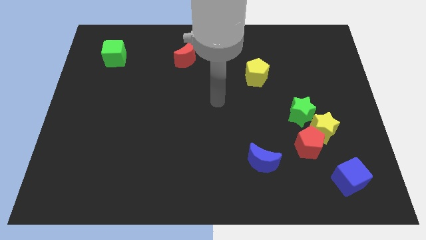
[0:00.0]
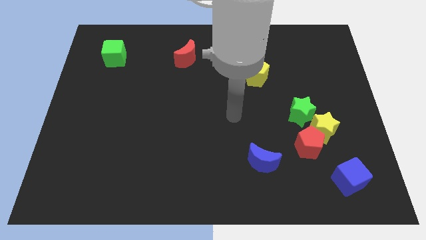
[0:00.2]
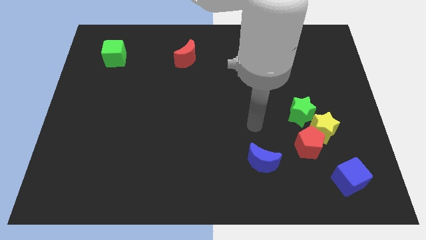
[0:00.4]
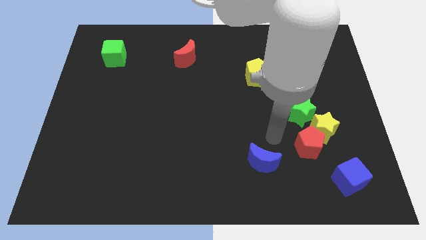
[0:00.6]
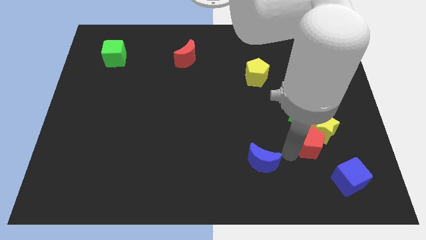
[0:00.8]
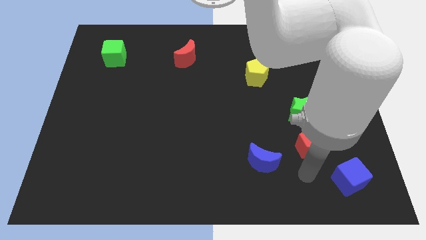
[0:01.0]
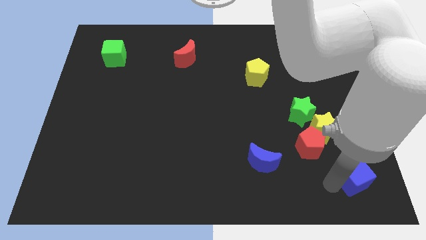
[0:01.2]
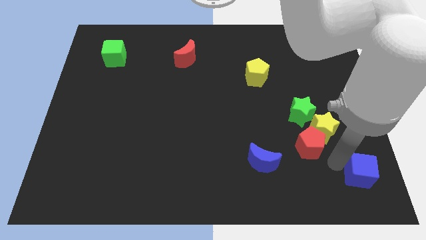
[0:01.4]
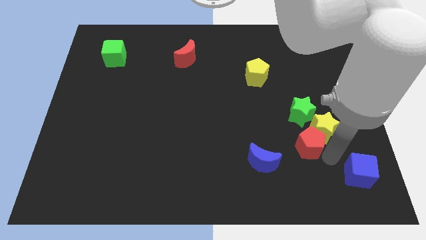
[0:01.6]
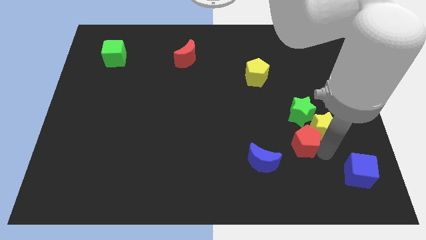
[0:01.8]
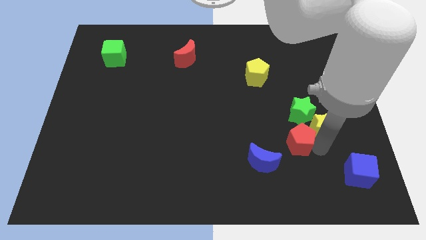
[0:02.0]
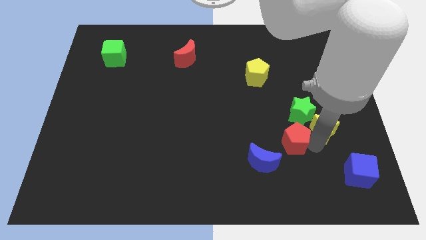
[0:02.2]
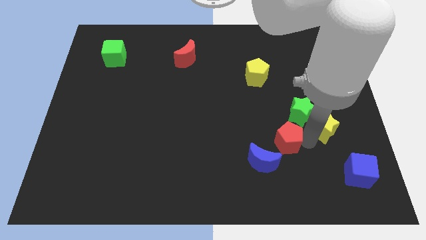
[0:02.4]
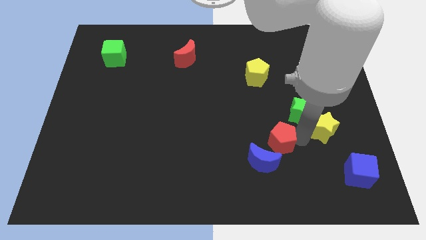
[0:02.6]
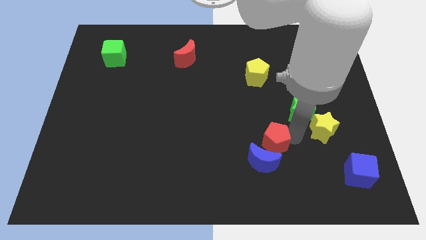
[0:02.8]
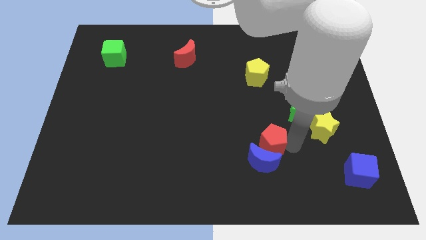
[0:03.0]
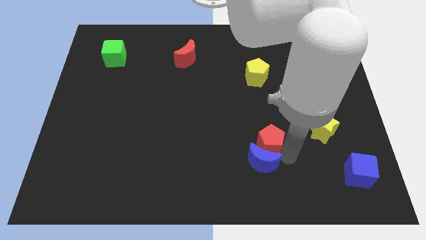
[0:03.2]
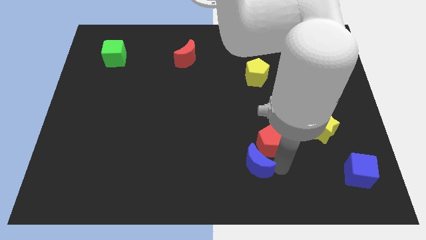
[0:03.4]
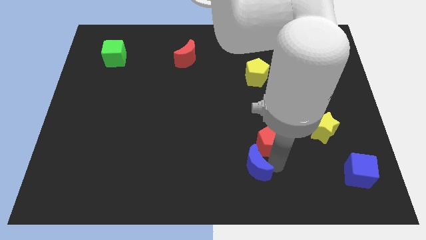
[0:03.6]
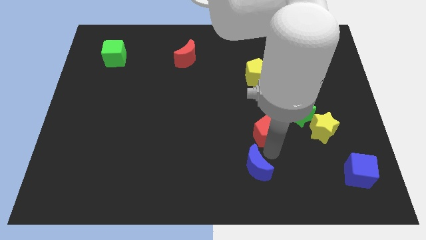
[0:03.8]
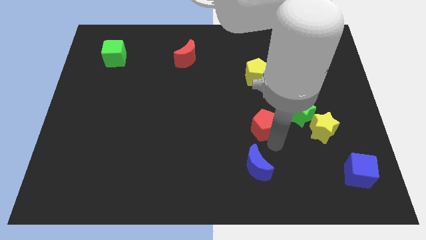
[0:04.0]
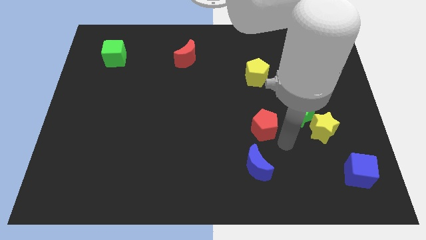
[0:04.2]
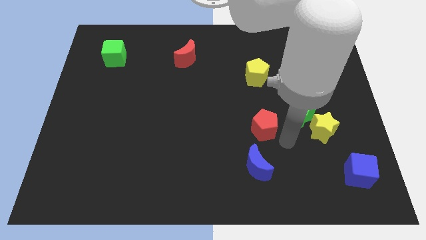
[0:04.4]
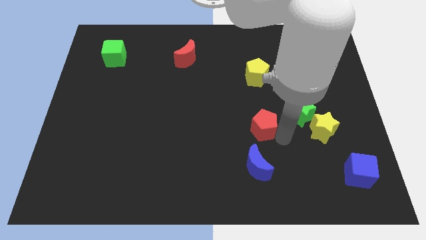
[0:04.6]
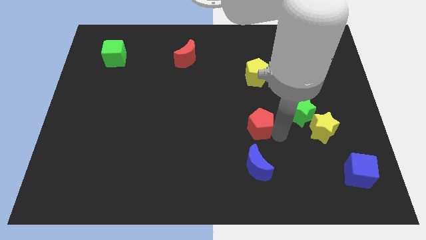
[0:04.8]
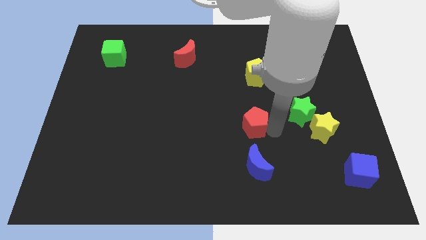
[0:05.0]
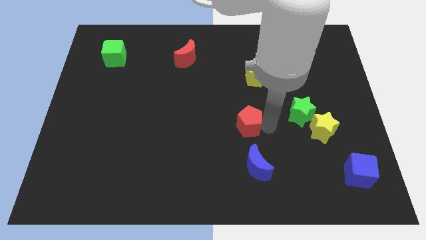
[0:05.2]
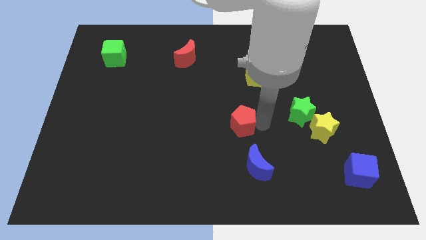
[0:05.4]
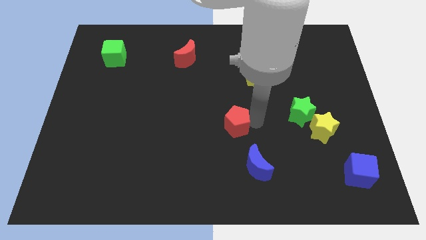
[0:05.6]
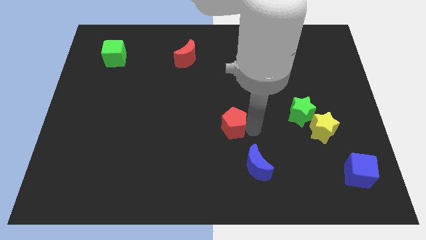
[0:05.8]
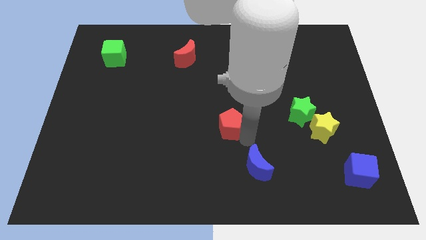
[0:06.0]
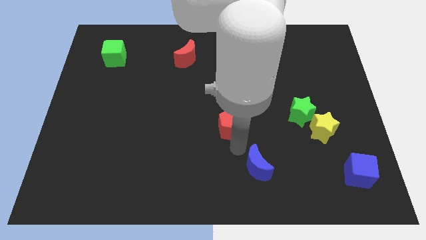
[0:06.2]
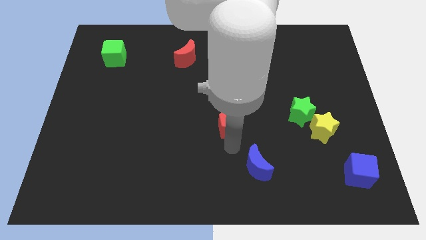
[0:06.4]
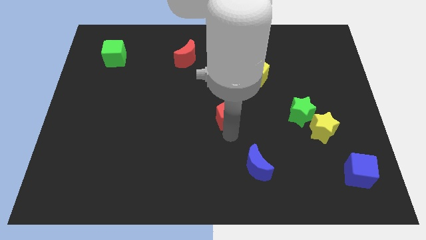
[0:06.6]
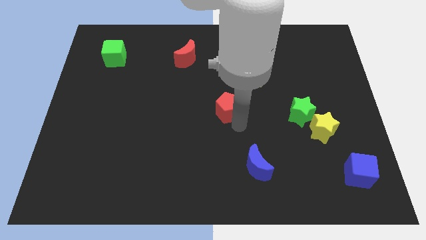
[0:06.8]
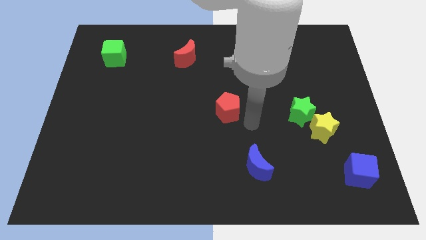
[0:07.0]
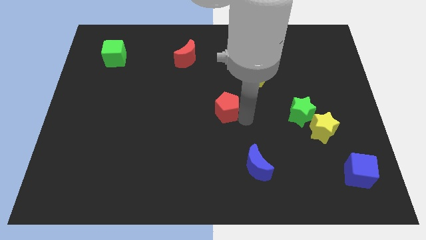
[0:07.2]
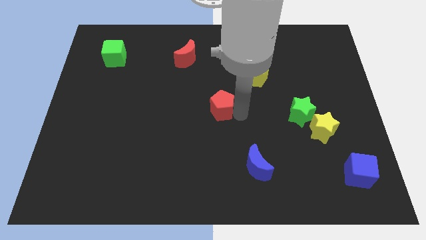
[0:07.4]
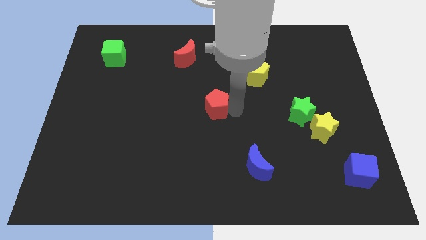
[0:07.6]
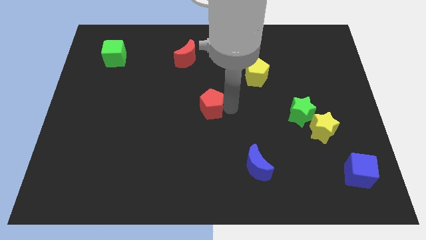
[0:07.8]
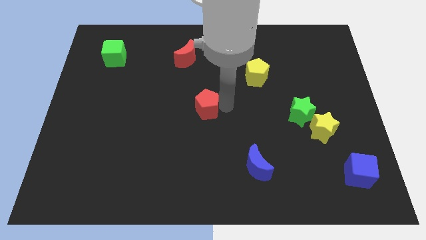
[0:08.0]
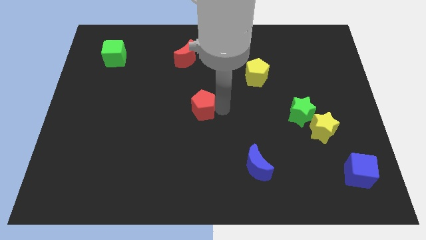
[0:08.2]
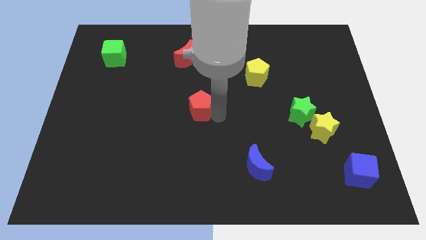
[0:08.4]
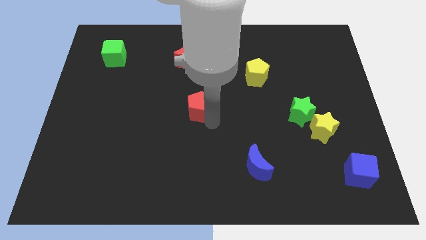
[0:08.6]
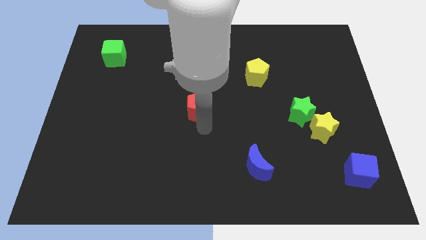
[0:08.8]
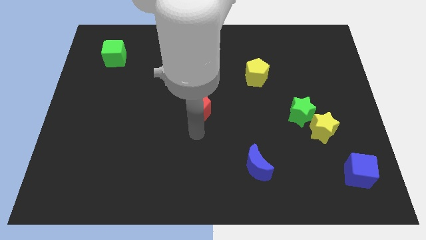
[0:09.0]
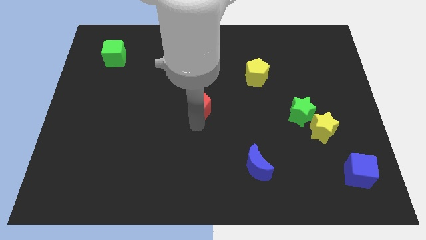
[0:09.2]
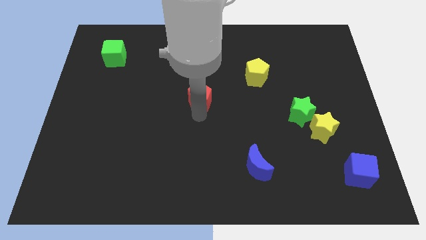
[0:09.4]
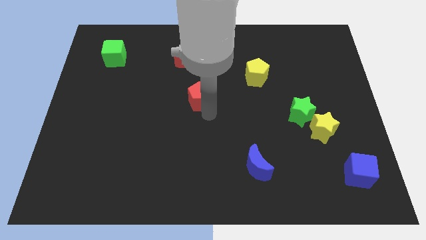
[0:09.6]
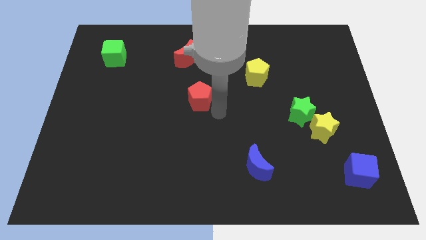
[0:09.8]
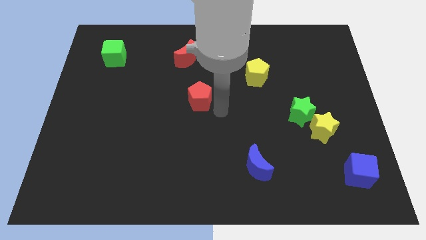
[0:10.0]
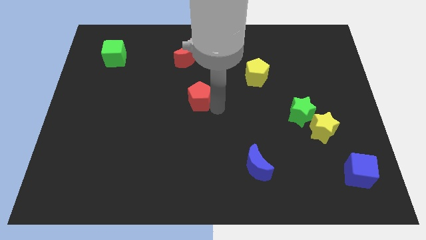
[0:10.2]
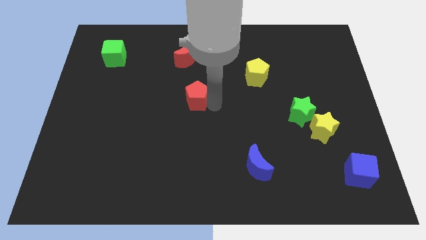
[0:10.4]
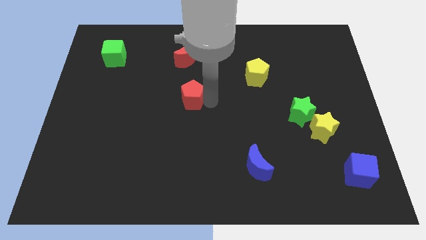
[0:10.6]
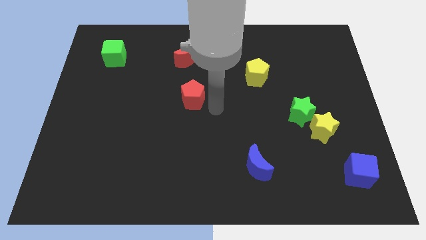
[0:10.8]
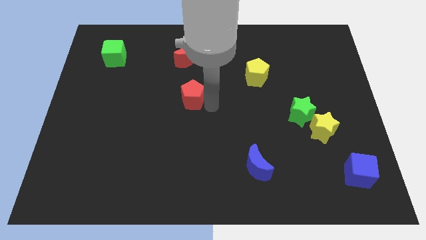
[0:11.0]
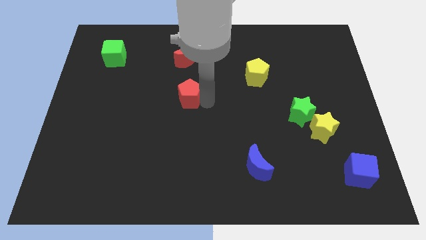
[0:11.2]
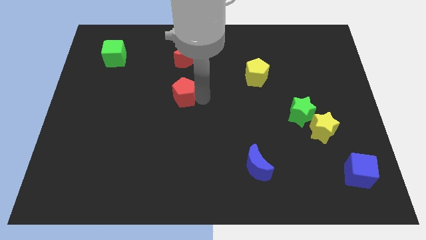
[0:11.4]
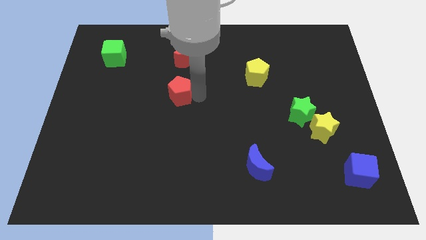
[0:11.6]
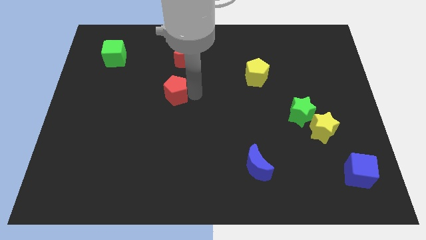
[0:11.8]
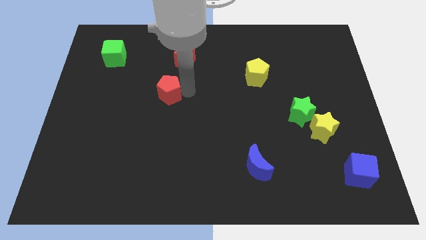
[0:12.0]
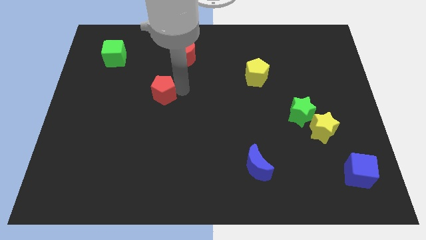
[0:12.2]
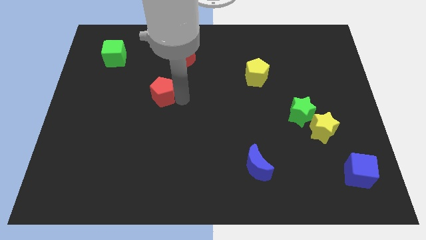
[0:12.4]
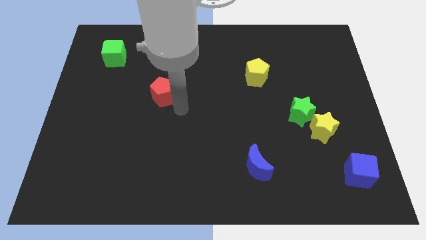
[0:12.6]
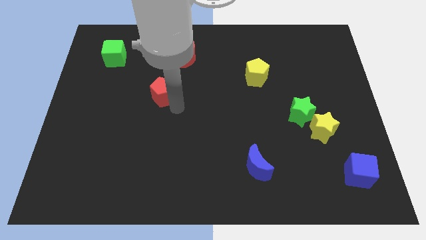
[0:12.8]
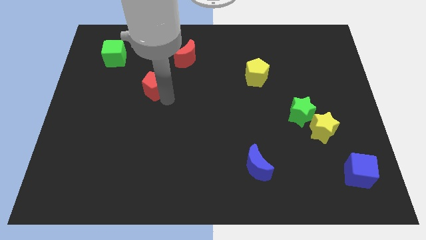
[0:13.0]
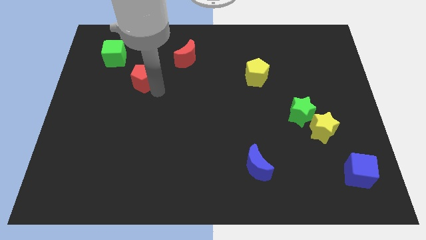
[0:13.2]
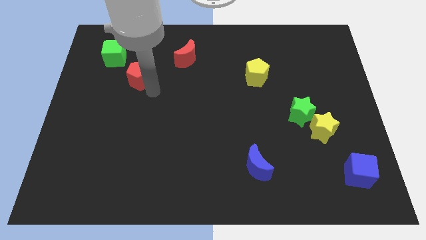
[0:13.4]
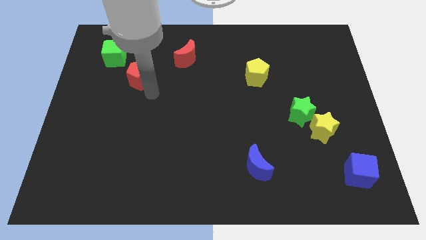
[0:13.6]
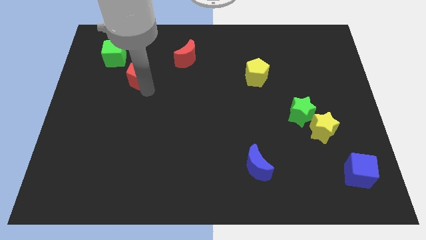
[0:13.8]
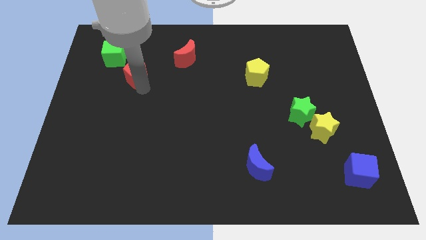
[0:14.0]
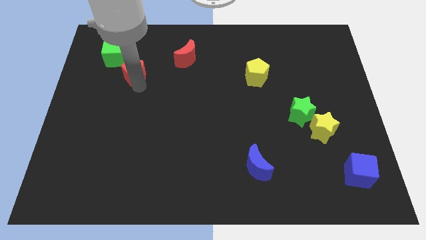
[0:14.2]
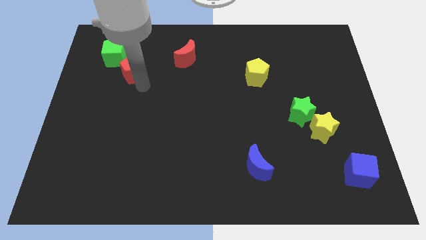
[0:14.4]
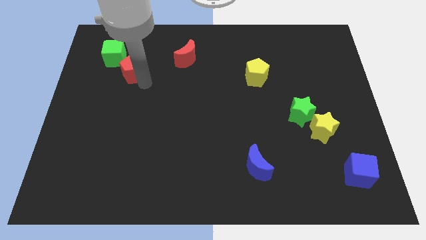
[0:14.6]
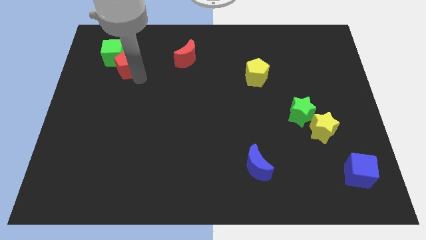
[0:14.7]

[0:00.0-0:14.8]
put the red pentagon towards the green cube
